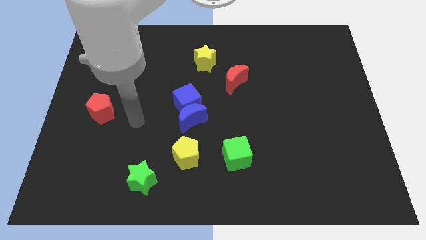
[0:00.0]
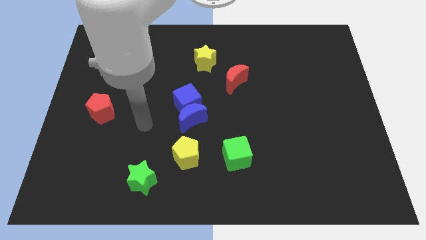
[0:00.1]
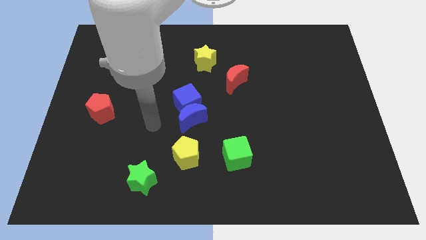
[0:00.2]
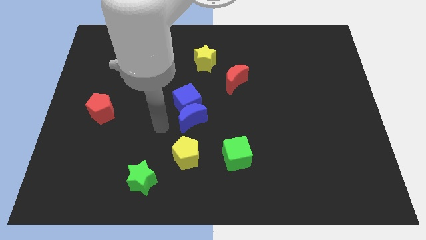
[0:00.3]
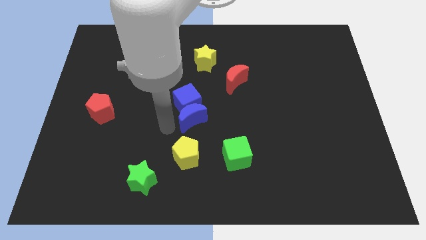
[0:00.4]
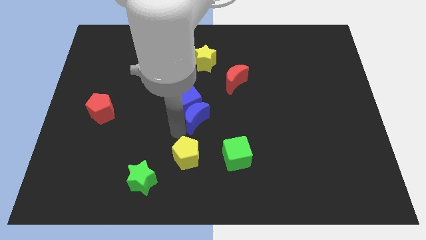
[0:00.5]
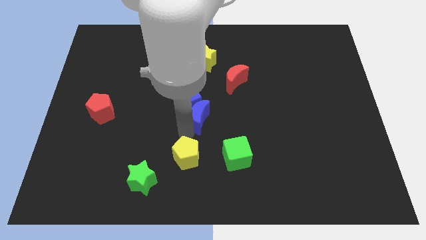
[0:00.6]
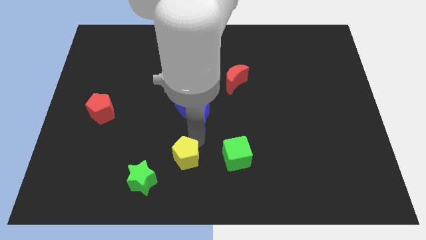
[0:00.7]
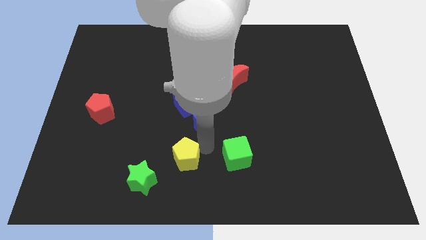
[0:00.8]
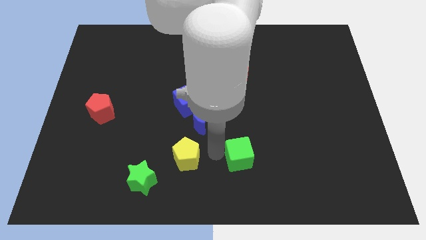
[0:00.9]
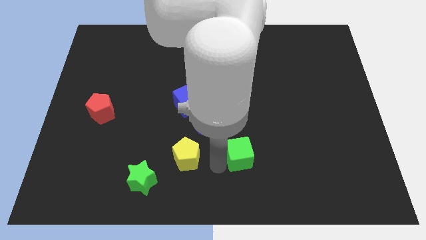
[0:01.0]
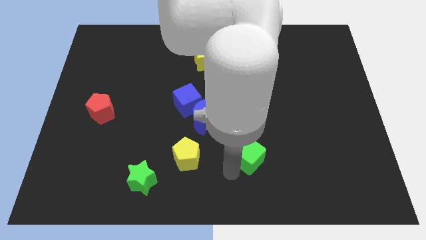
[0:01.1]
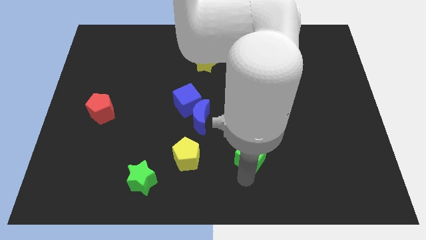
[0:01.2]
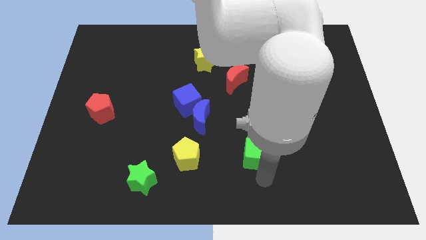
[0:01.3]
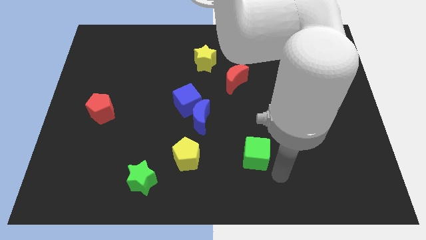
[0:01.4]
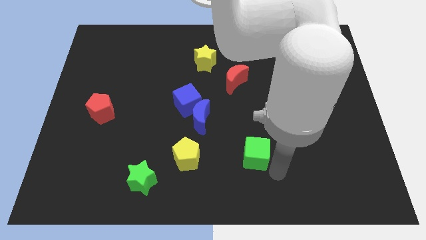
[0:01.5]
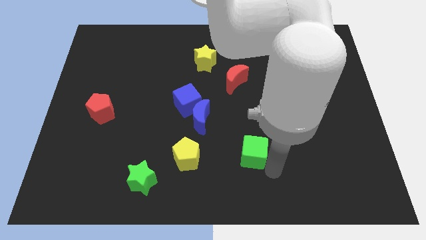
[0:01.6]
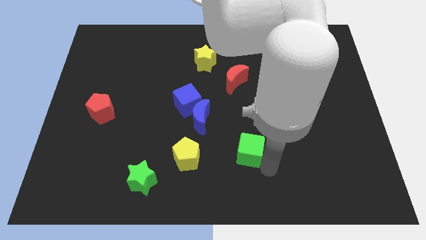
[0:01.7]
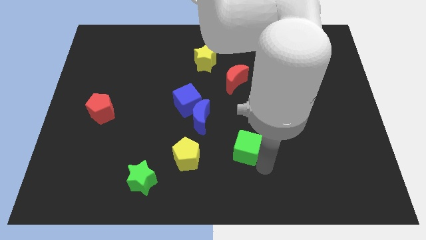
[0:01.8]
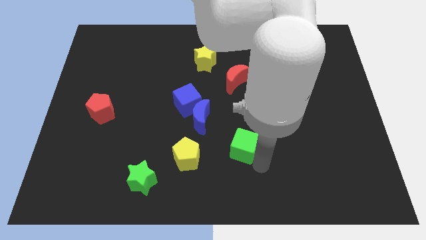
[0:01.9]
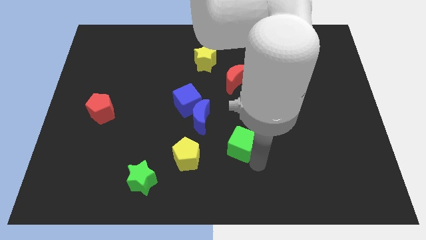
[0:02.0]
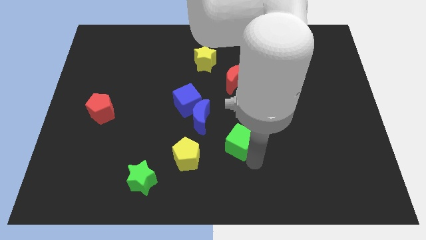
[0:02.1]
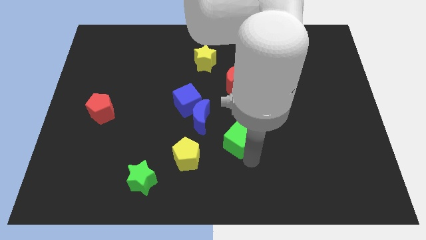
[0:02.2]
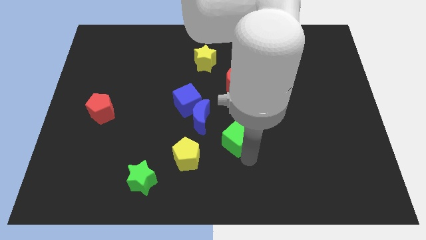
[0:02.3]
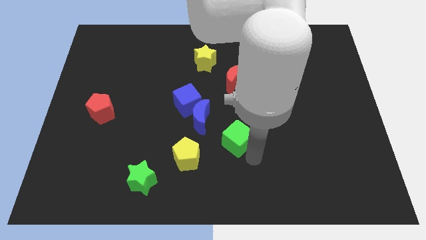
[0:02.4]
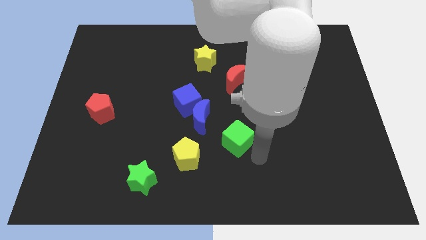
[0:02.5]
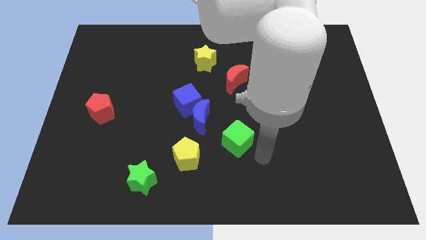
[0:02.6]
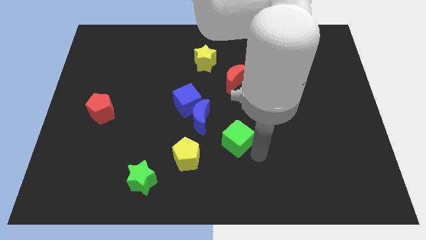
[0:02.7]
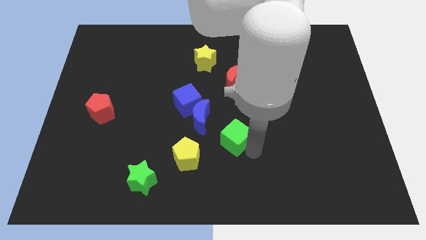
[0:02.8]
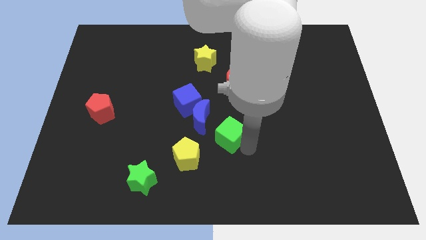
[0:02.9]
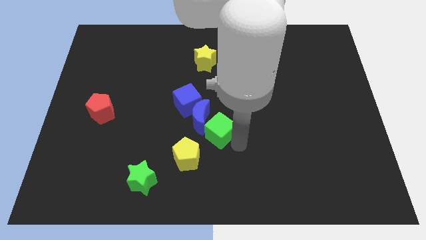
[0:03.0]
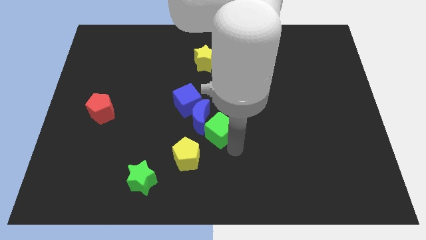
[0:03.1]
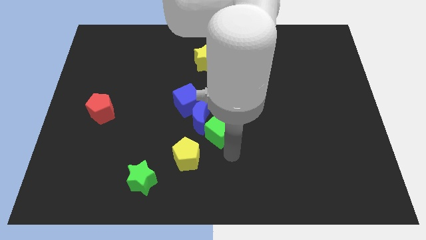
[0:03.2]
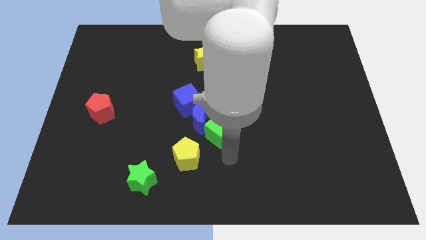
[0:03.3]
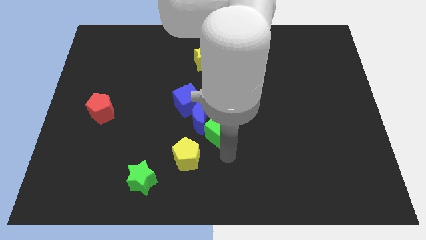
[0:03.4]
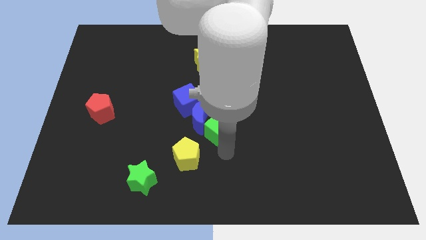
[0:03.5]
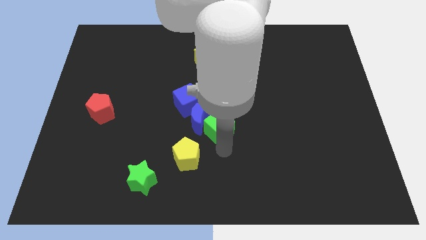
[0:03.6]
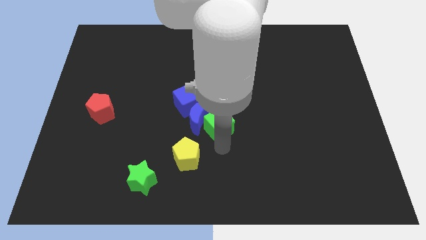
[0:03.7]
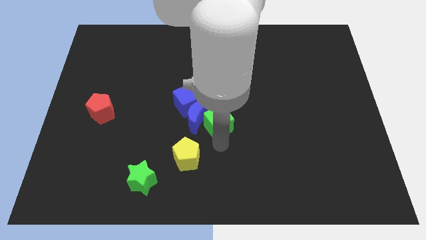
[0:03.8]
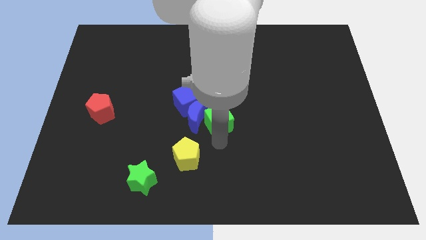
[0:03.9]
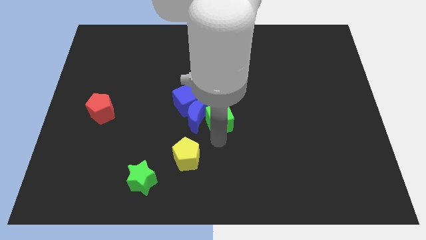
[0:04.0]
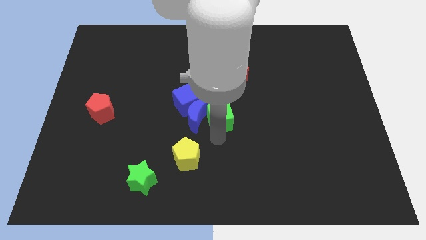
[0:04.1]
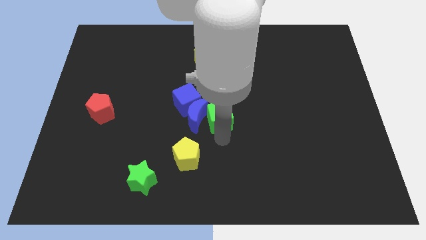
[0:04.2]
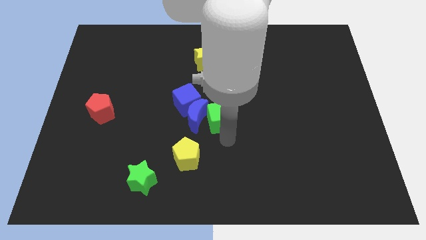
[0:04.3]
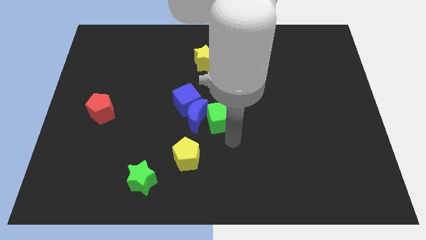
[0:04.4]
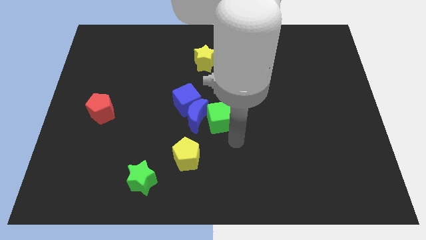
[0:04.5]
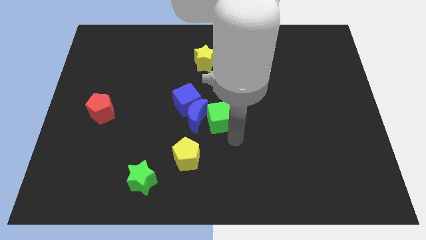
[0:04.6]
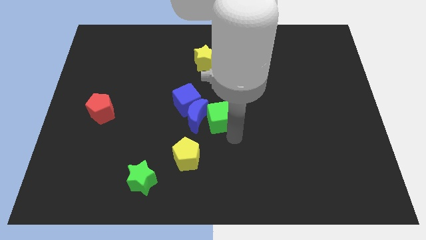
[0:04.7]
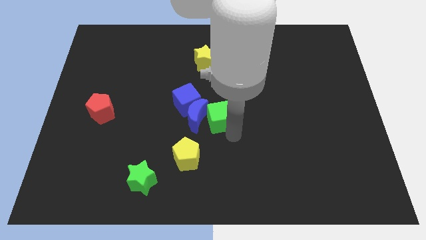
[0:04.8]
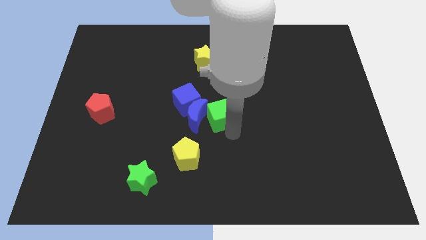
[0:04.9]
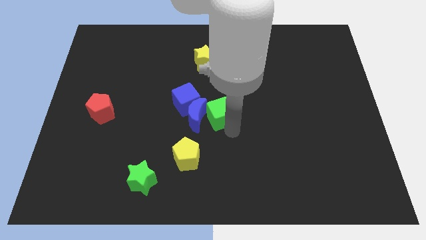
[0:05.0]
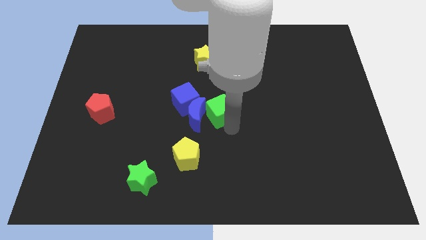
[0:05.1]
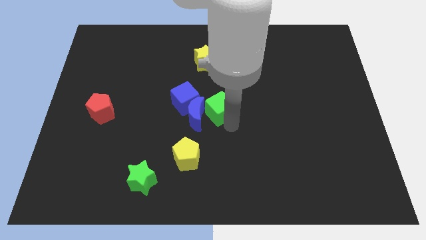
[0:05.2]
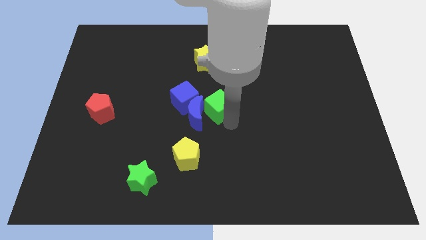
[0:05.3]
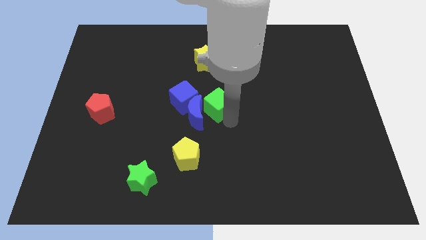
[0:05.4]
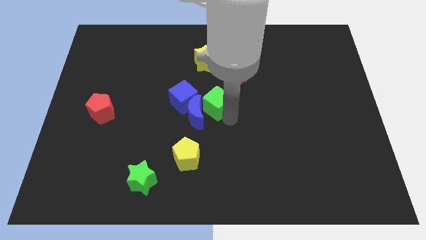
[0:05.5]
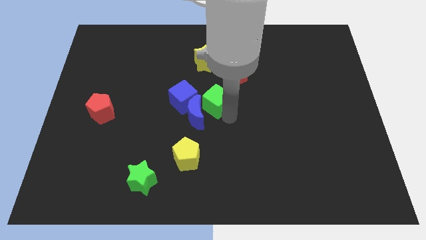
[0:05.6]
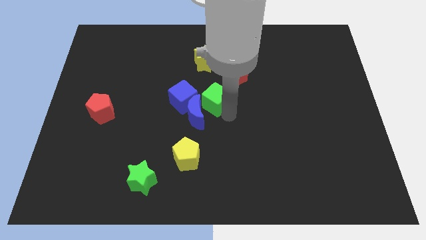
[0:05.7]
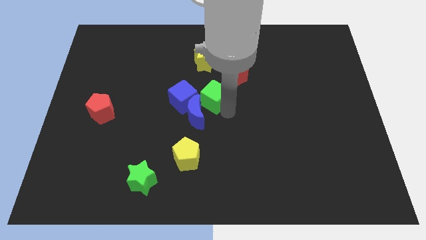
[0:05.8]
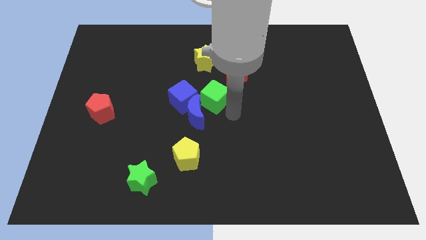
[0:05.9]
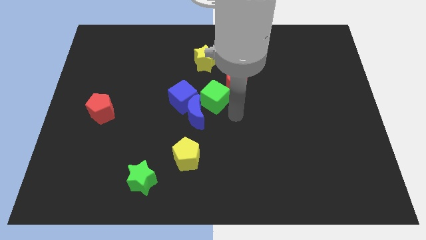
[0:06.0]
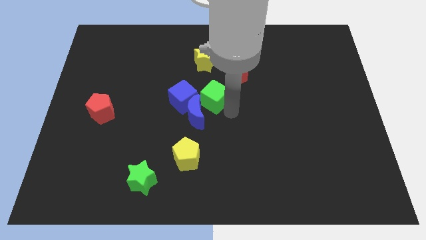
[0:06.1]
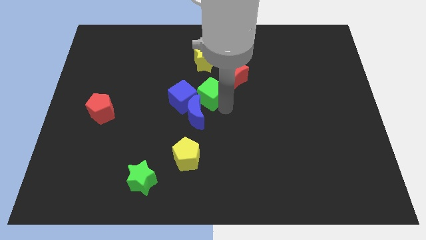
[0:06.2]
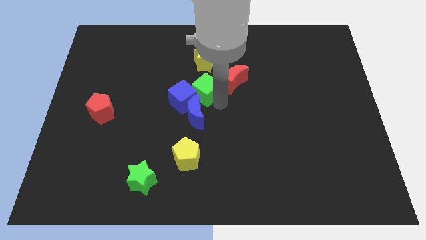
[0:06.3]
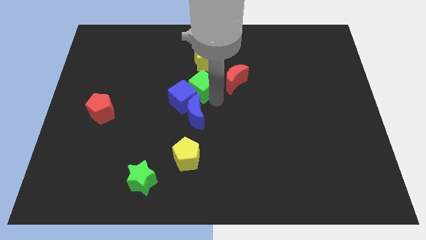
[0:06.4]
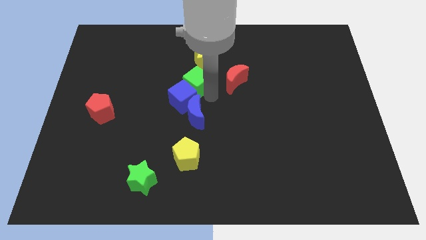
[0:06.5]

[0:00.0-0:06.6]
put the green cube diagonally down and to the left of the yellow star
